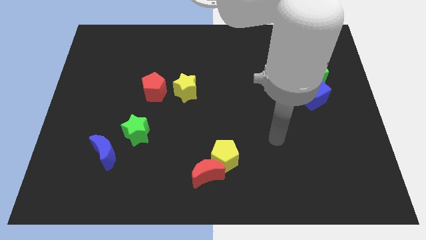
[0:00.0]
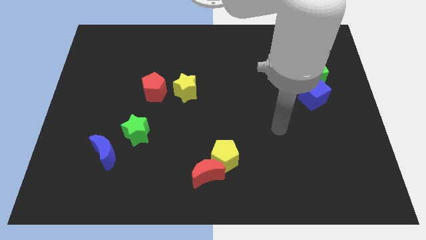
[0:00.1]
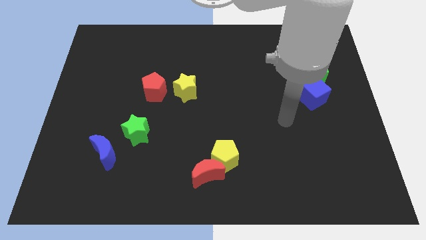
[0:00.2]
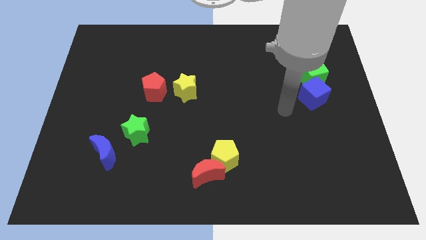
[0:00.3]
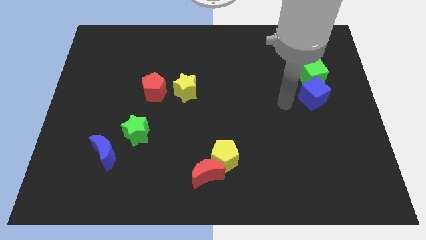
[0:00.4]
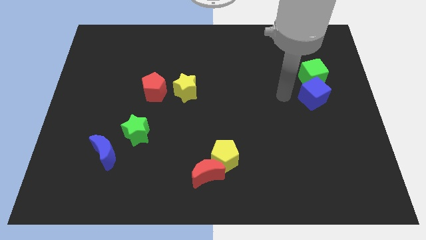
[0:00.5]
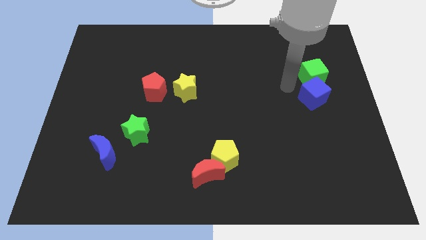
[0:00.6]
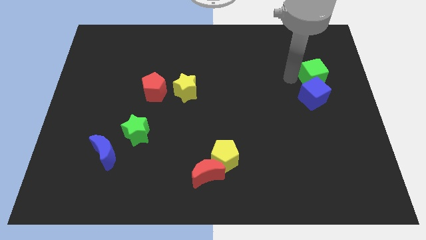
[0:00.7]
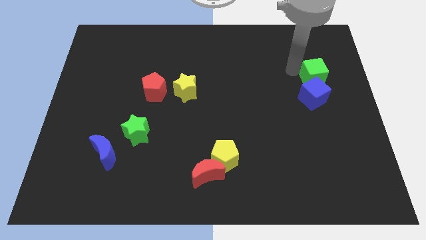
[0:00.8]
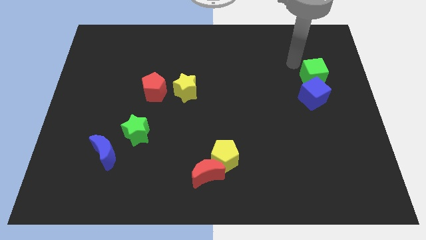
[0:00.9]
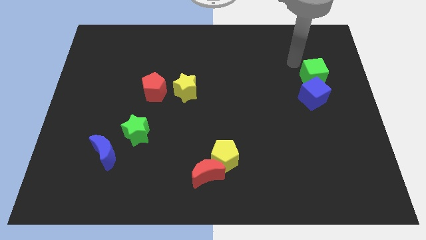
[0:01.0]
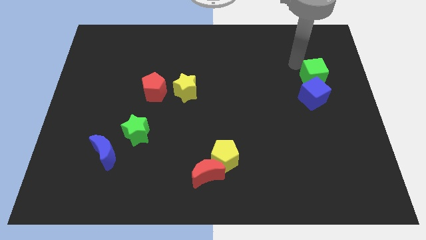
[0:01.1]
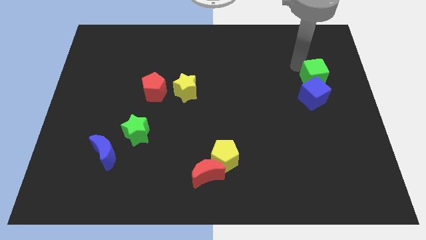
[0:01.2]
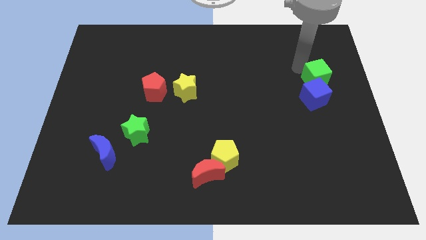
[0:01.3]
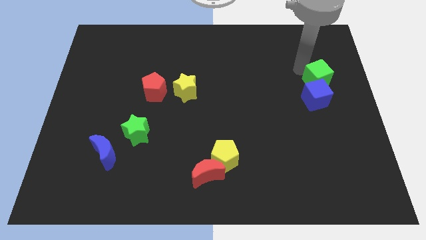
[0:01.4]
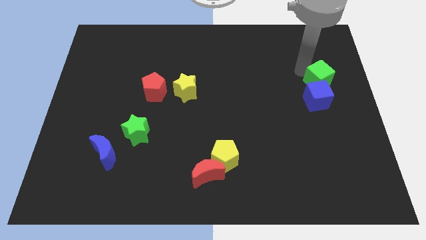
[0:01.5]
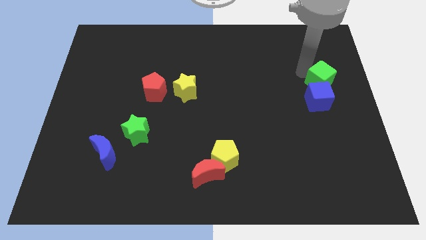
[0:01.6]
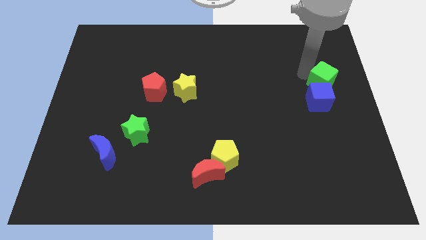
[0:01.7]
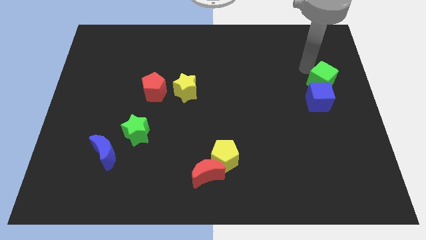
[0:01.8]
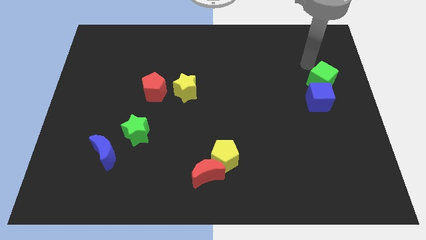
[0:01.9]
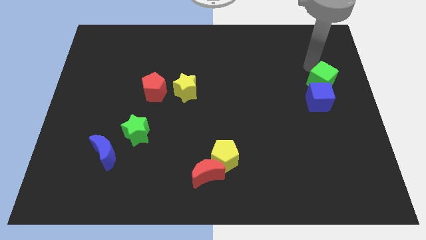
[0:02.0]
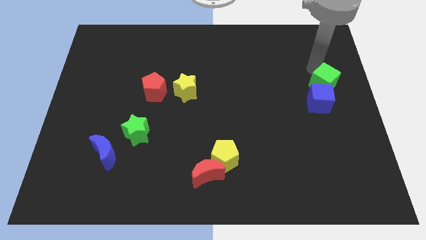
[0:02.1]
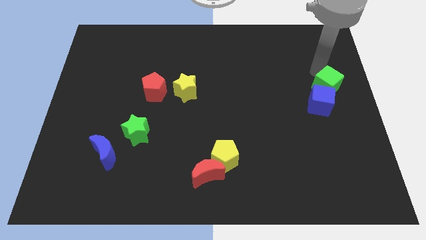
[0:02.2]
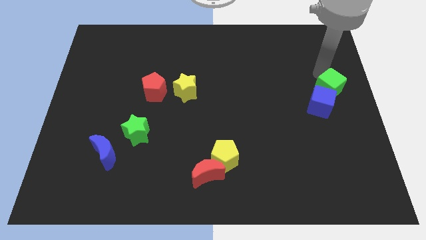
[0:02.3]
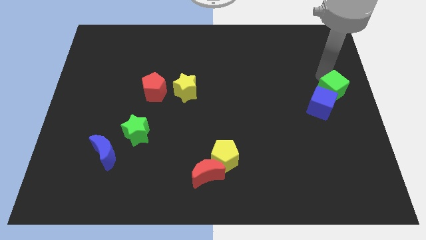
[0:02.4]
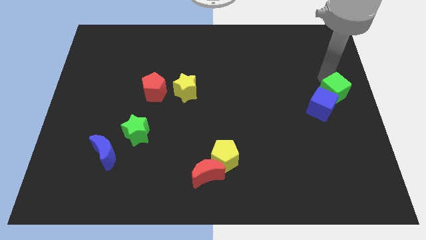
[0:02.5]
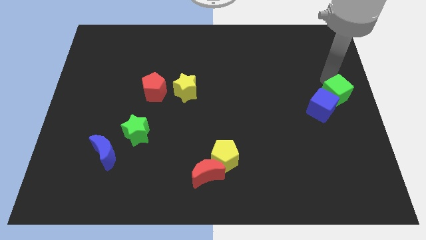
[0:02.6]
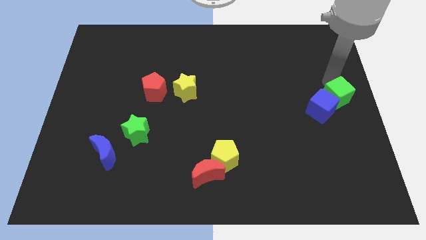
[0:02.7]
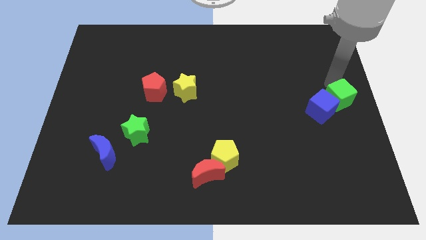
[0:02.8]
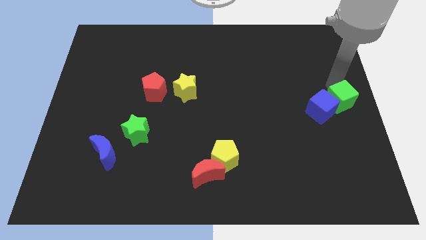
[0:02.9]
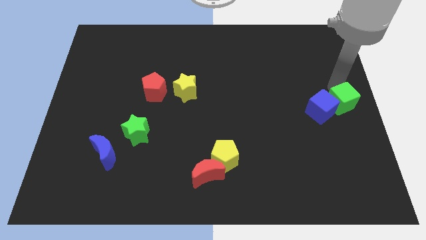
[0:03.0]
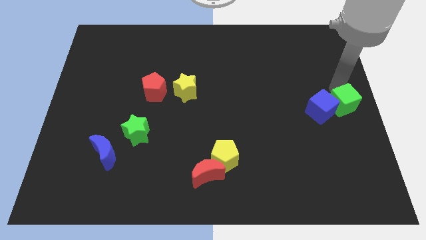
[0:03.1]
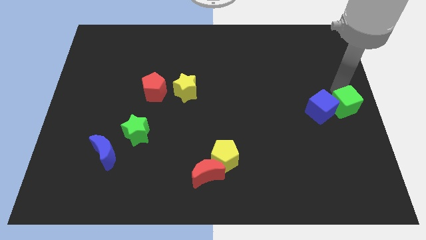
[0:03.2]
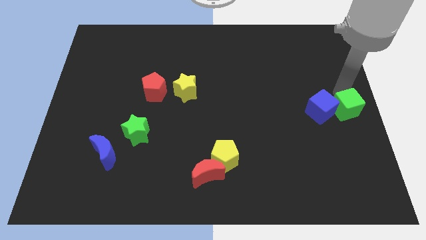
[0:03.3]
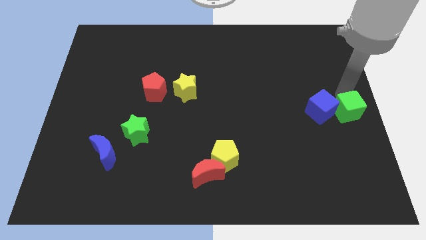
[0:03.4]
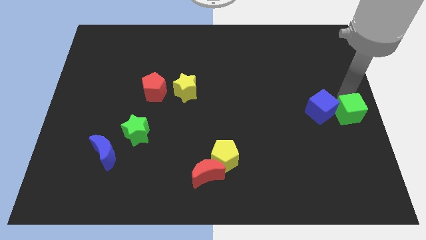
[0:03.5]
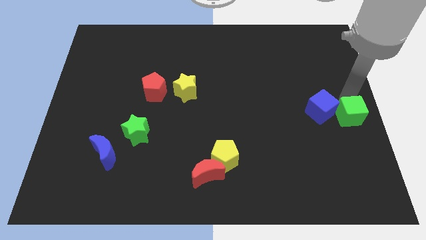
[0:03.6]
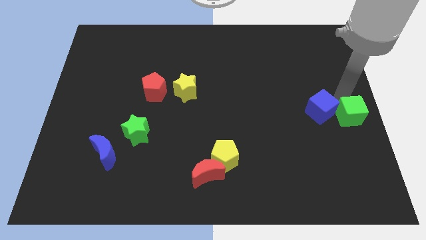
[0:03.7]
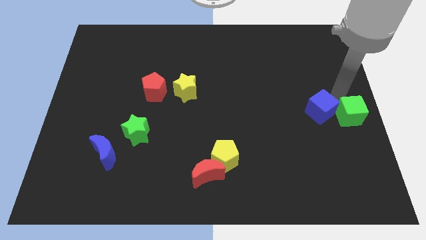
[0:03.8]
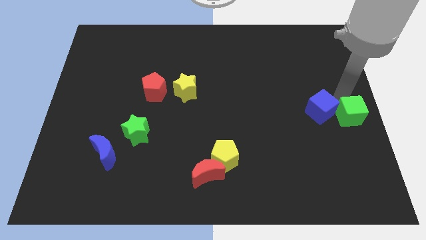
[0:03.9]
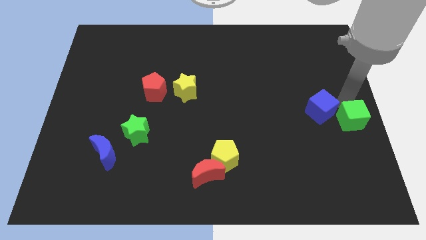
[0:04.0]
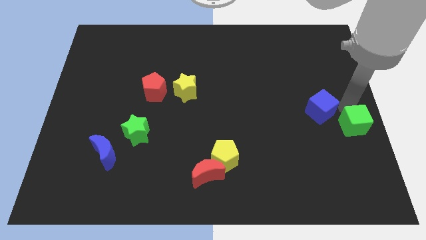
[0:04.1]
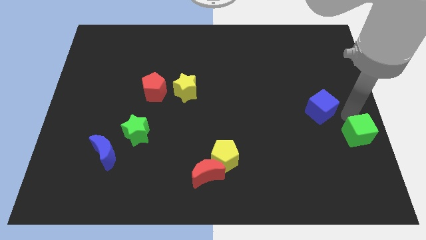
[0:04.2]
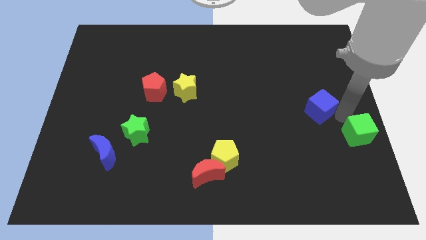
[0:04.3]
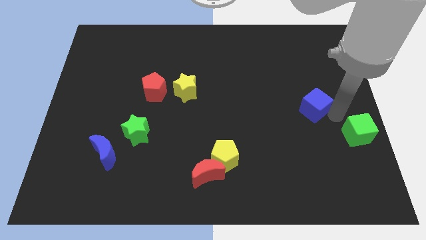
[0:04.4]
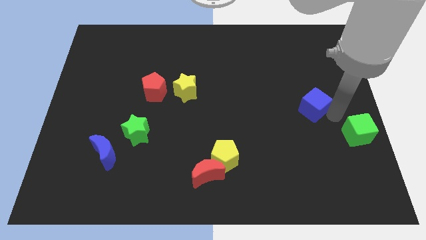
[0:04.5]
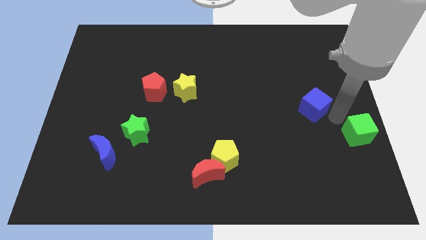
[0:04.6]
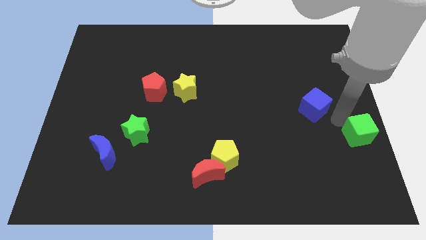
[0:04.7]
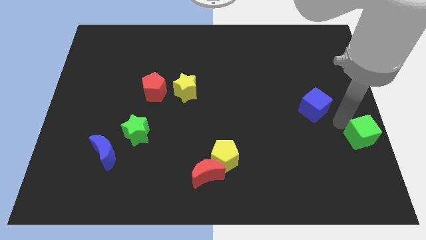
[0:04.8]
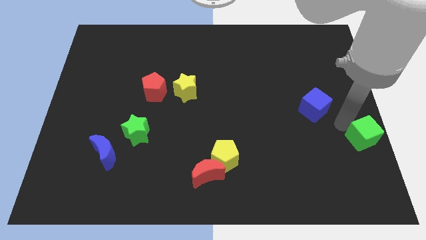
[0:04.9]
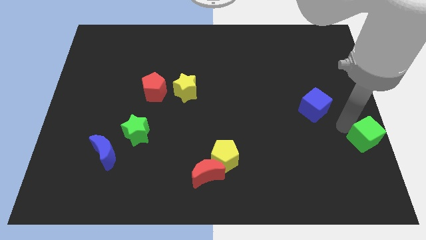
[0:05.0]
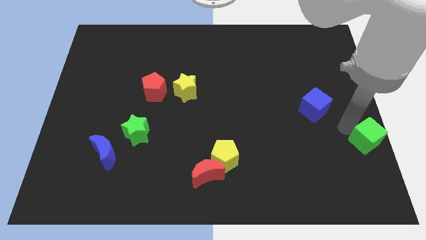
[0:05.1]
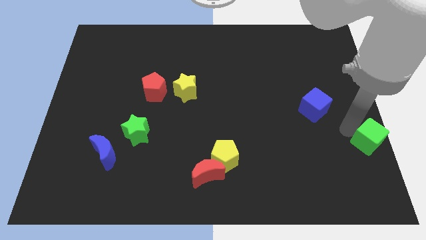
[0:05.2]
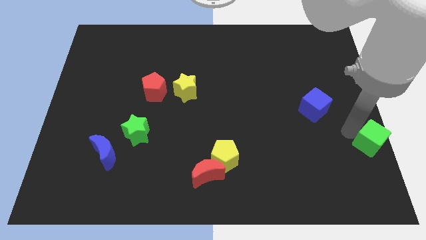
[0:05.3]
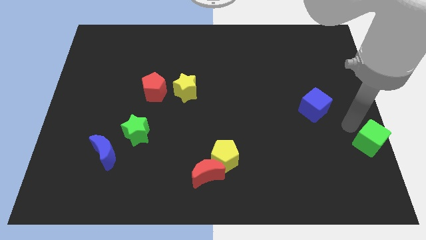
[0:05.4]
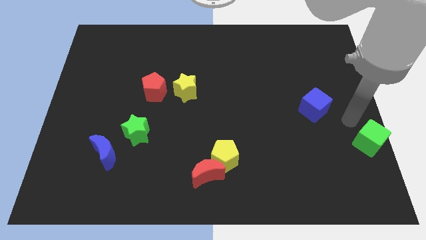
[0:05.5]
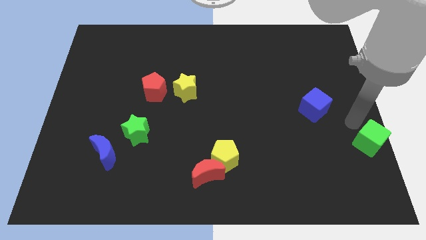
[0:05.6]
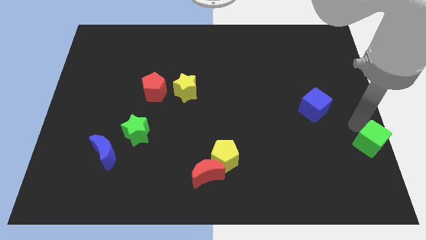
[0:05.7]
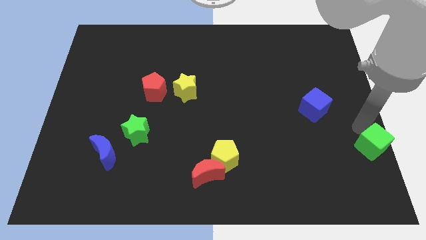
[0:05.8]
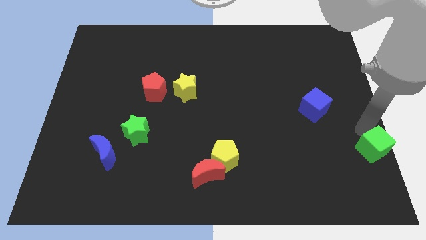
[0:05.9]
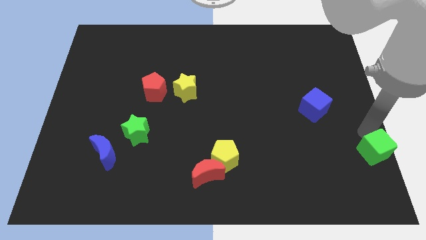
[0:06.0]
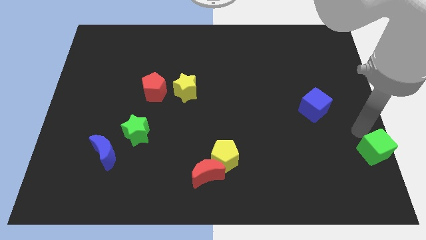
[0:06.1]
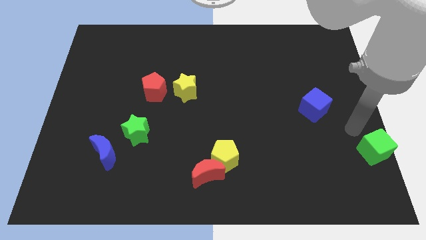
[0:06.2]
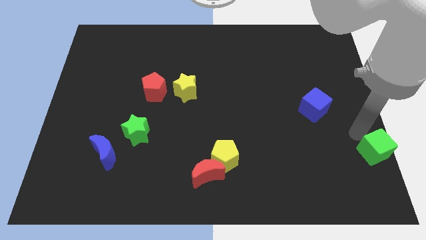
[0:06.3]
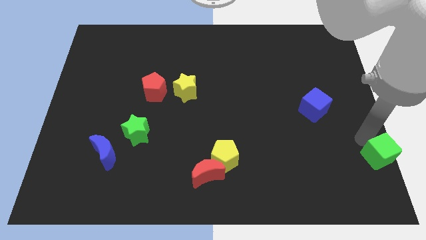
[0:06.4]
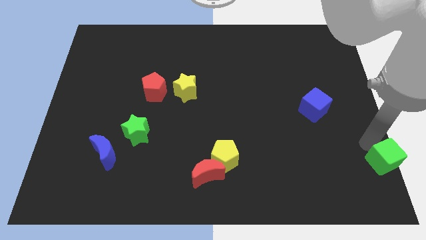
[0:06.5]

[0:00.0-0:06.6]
push the green cube to the bottom right of the board

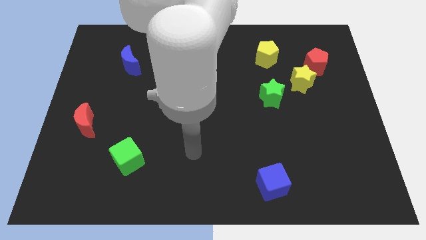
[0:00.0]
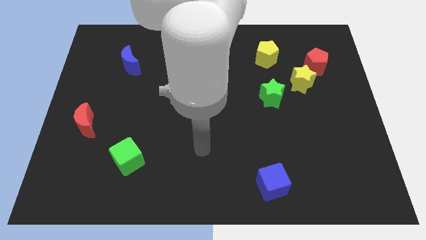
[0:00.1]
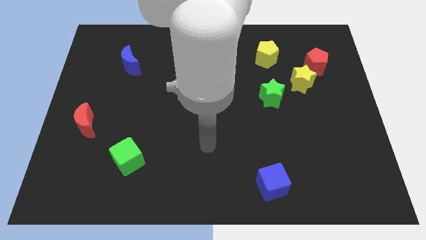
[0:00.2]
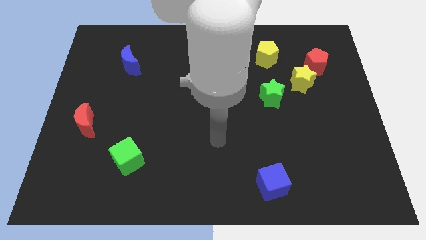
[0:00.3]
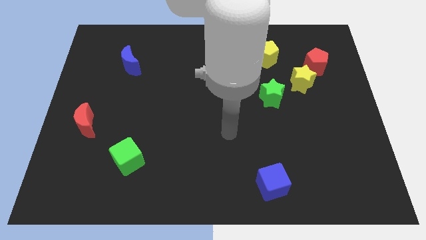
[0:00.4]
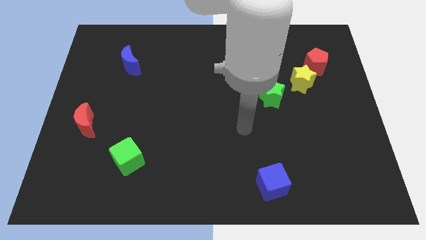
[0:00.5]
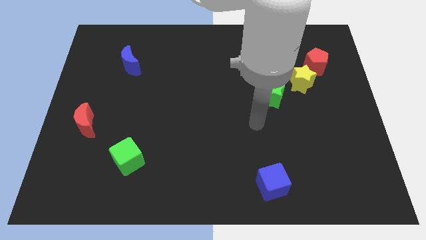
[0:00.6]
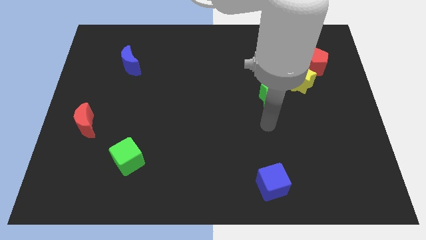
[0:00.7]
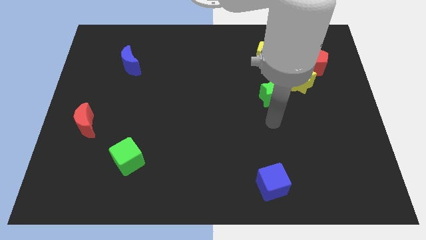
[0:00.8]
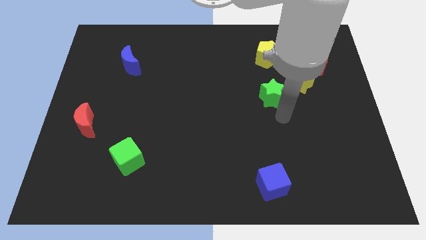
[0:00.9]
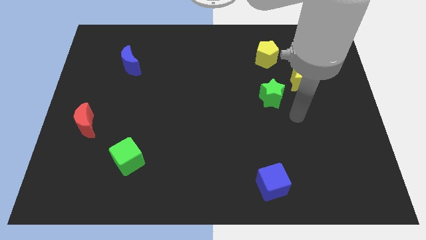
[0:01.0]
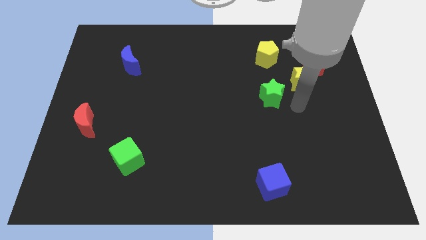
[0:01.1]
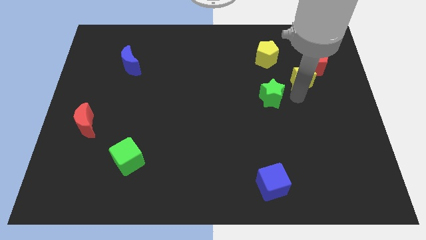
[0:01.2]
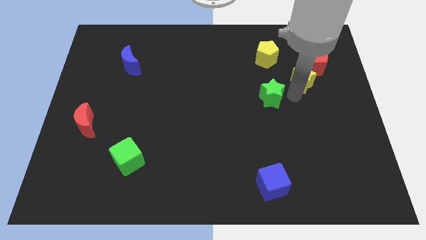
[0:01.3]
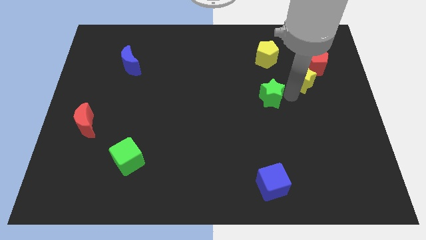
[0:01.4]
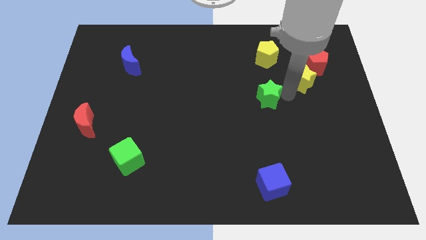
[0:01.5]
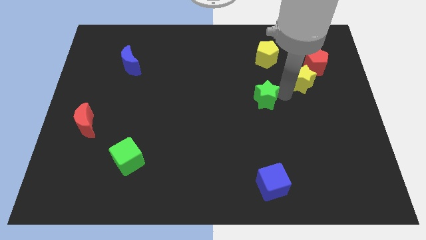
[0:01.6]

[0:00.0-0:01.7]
put the green star to the middle of the board
